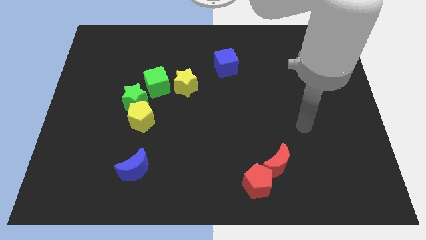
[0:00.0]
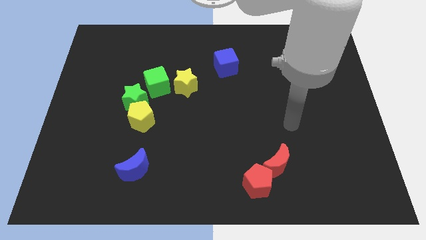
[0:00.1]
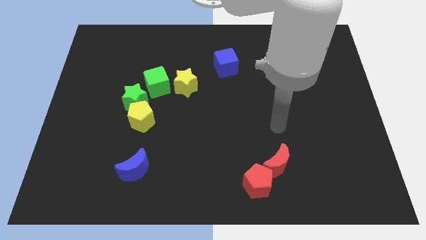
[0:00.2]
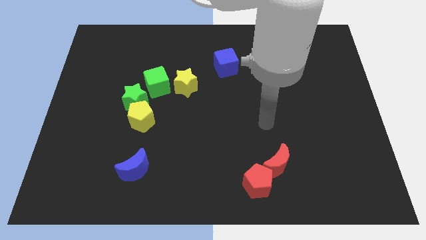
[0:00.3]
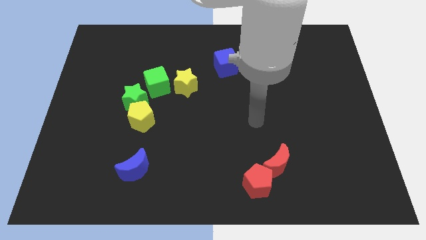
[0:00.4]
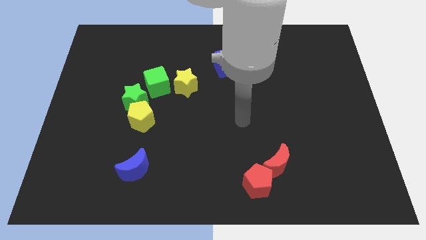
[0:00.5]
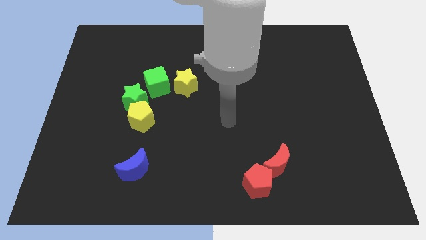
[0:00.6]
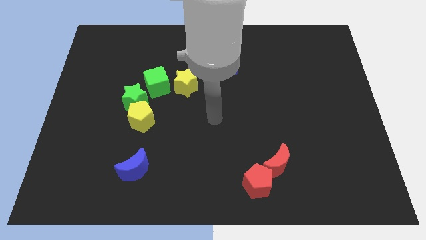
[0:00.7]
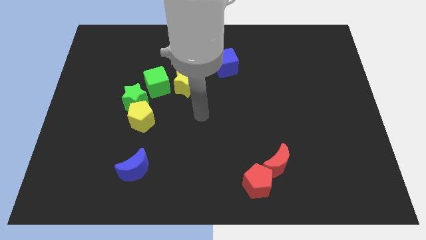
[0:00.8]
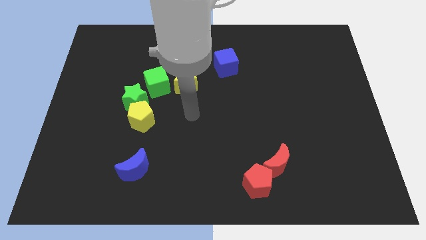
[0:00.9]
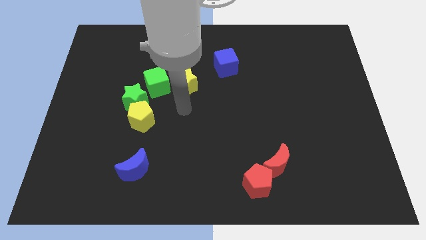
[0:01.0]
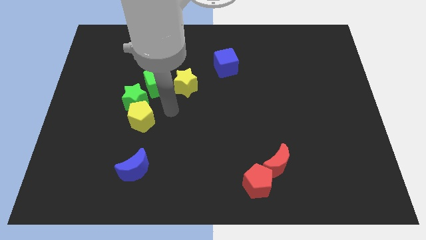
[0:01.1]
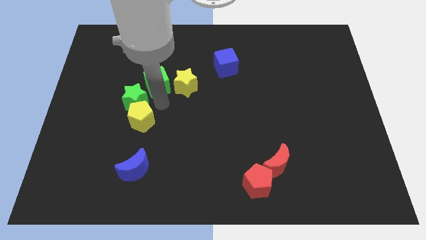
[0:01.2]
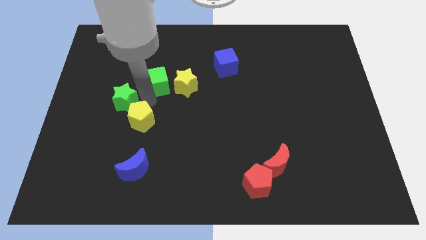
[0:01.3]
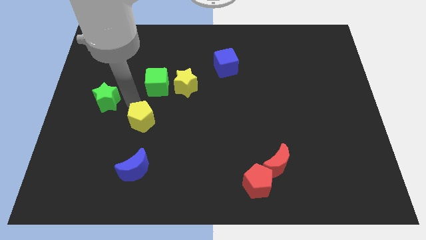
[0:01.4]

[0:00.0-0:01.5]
separate the yellow pentagon from the green star

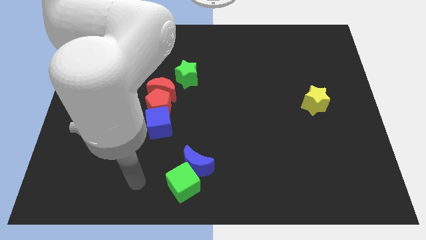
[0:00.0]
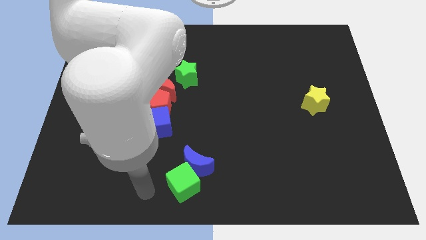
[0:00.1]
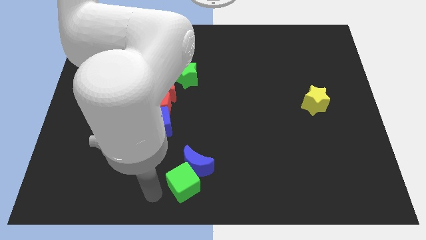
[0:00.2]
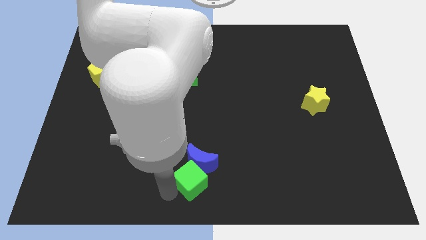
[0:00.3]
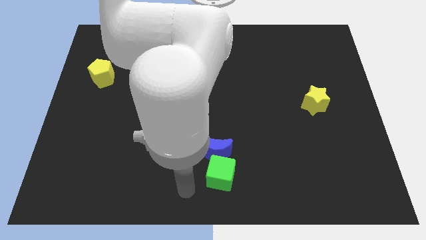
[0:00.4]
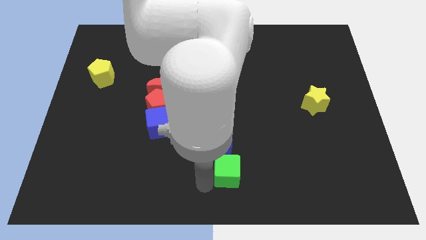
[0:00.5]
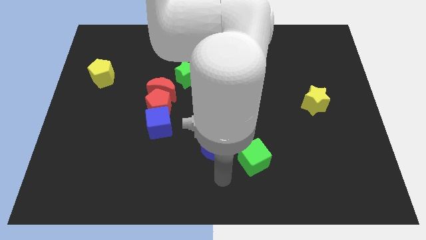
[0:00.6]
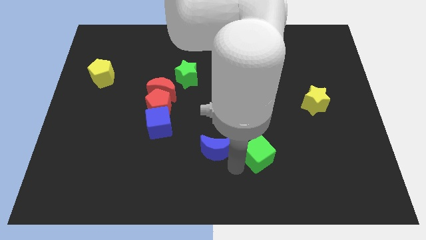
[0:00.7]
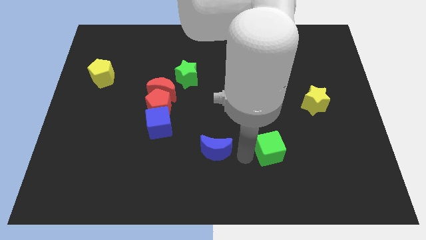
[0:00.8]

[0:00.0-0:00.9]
pull the blue moon apart from the green cube

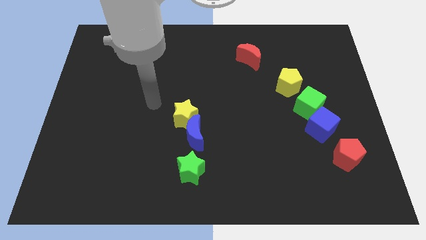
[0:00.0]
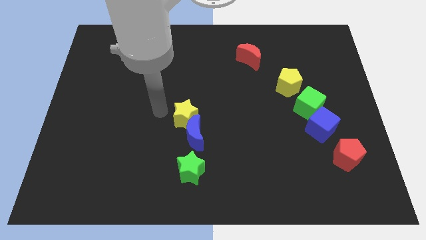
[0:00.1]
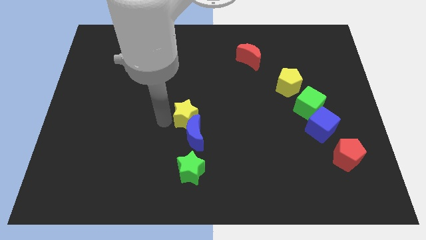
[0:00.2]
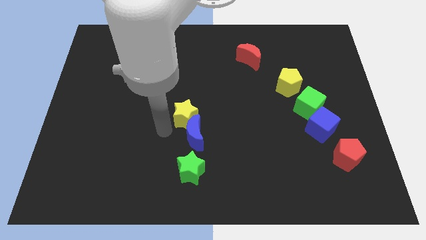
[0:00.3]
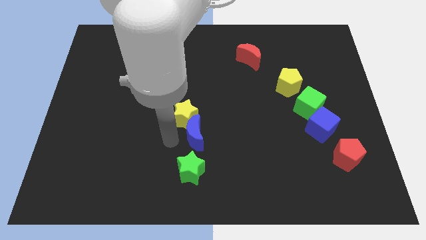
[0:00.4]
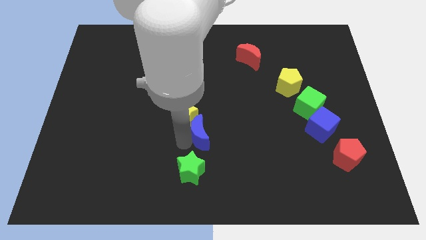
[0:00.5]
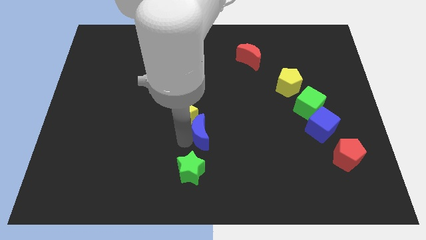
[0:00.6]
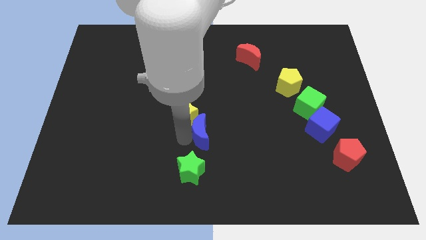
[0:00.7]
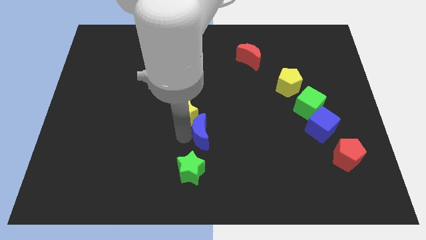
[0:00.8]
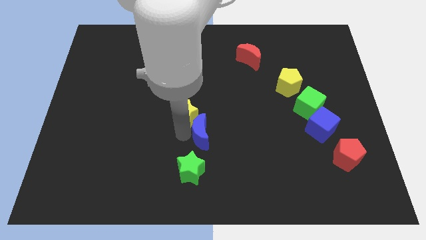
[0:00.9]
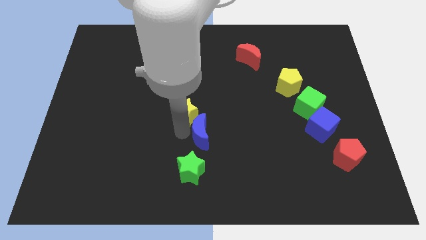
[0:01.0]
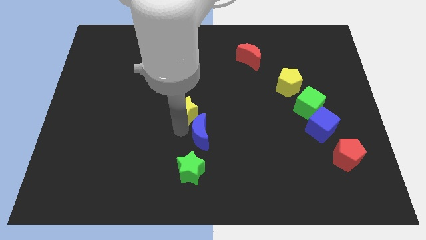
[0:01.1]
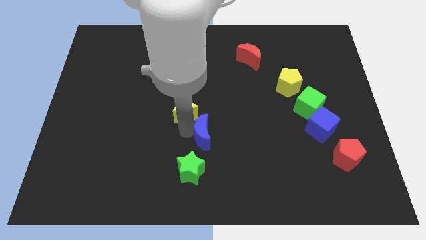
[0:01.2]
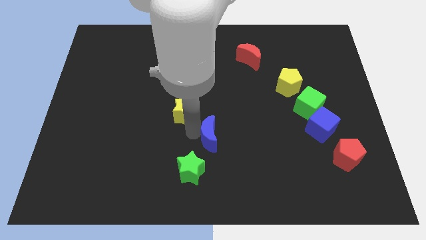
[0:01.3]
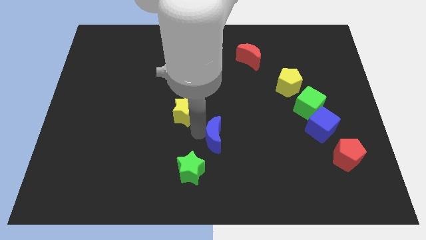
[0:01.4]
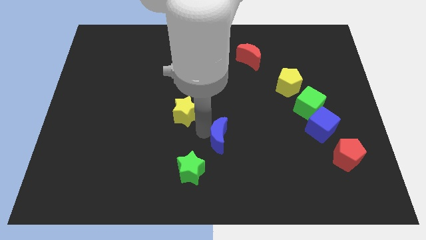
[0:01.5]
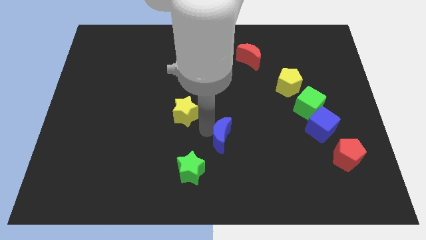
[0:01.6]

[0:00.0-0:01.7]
move the yellow star away from the blue moon

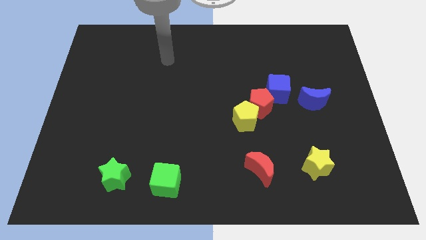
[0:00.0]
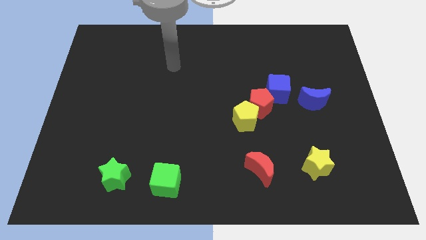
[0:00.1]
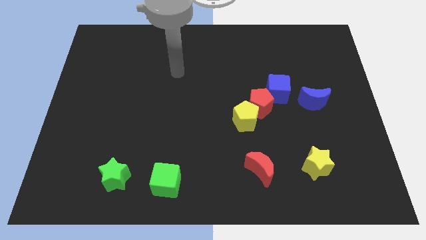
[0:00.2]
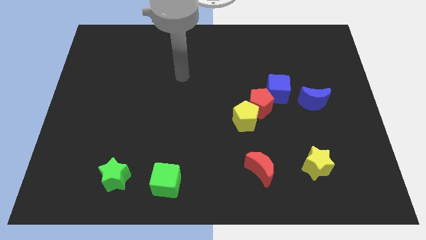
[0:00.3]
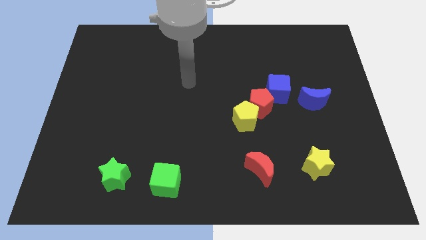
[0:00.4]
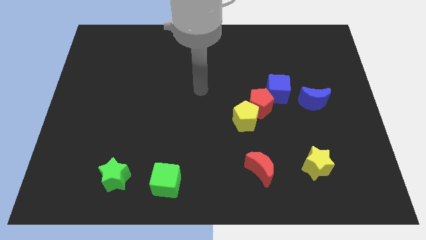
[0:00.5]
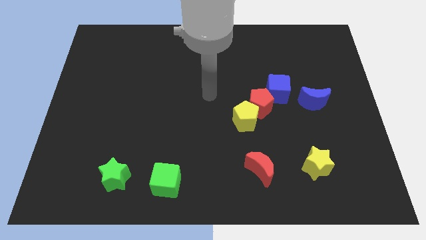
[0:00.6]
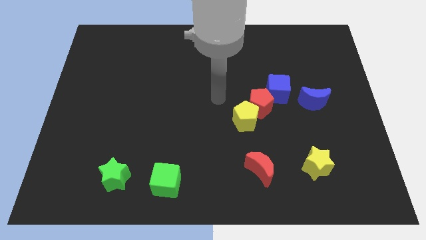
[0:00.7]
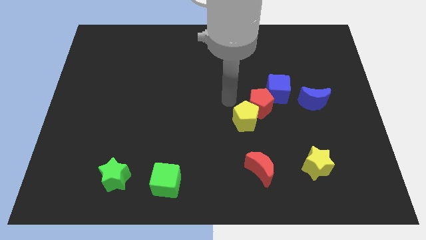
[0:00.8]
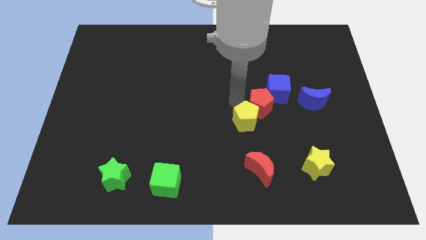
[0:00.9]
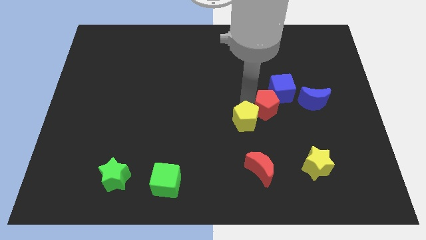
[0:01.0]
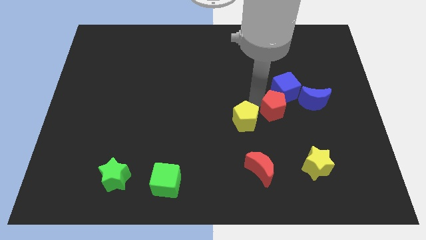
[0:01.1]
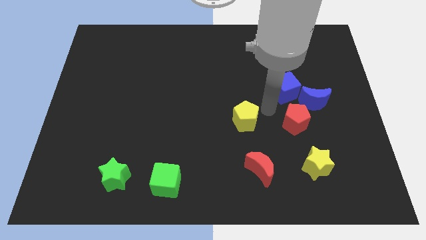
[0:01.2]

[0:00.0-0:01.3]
pull the yellow pentagon apart from the red pentagon

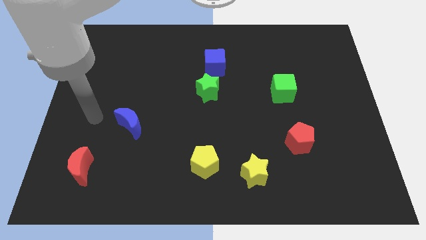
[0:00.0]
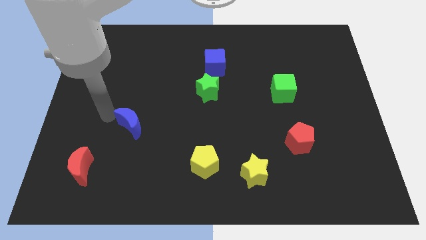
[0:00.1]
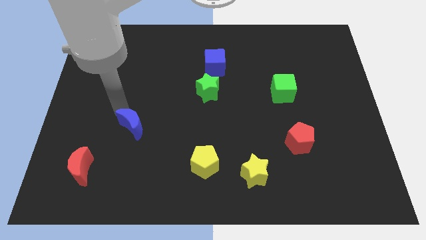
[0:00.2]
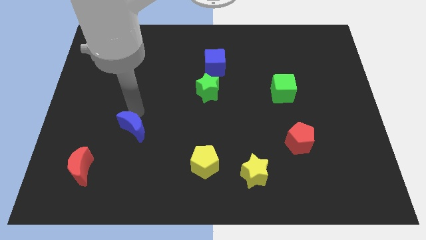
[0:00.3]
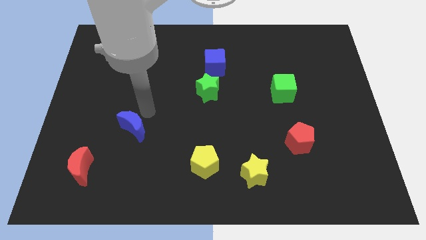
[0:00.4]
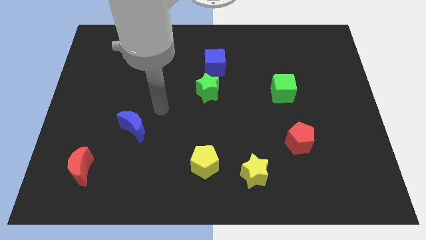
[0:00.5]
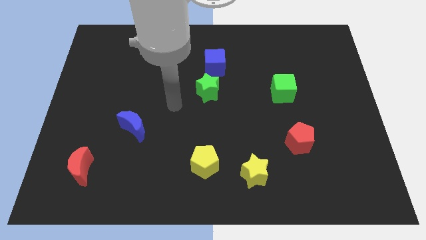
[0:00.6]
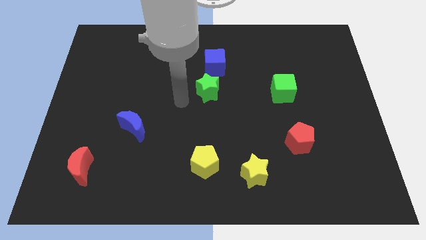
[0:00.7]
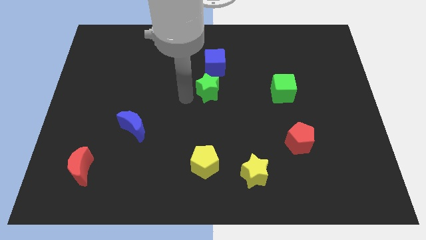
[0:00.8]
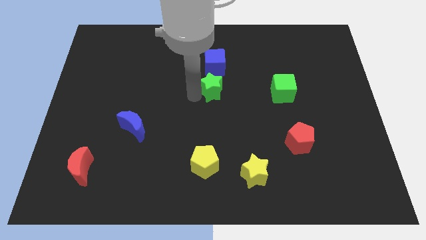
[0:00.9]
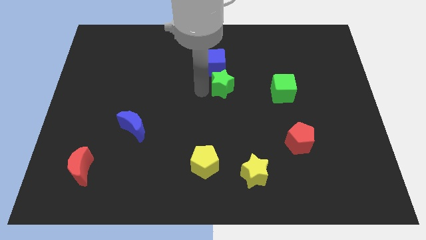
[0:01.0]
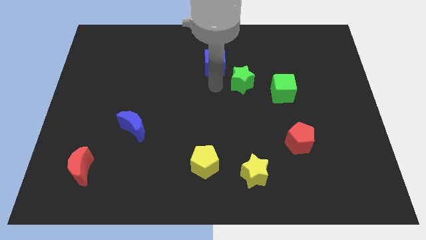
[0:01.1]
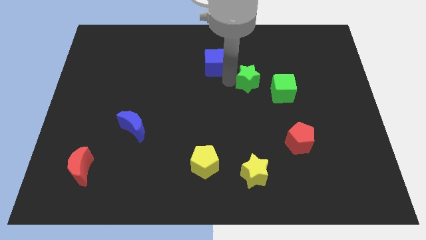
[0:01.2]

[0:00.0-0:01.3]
separate the blue cube from the green star

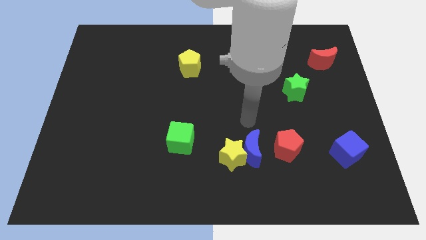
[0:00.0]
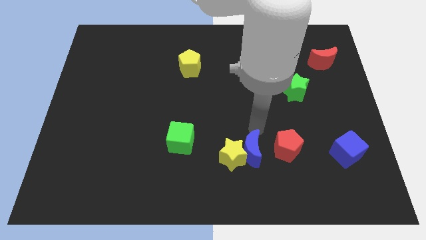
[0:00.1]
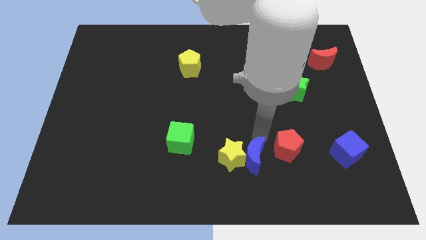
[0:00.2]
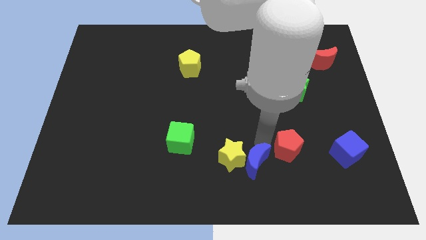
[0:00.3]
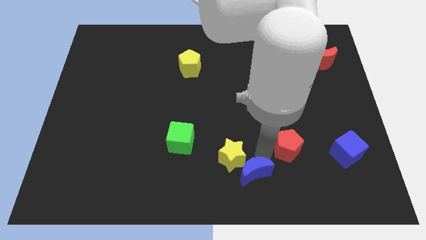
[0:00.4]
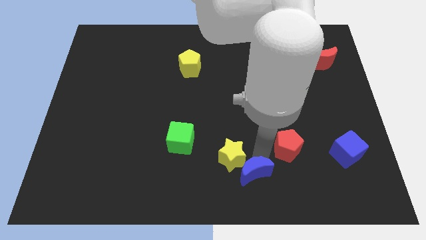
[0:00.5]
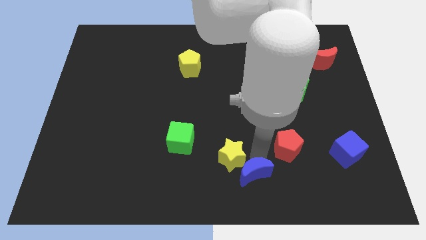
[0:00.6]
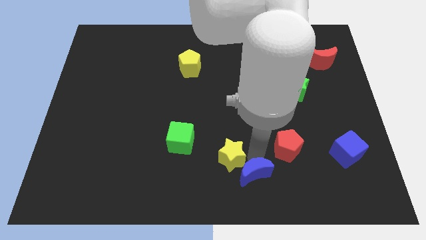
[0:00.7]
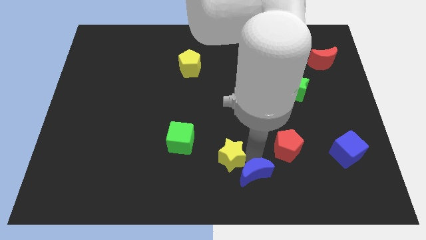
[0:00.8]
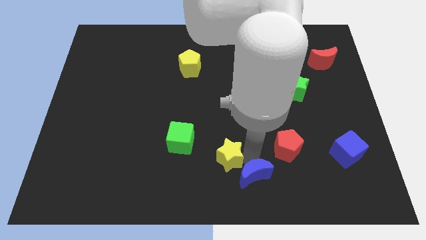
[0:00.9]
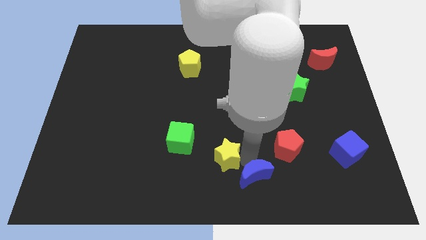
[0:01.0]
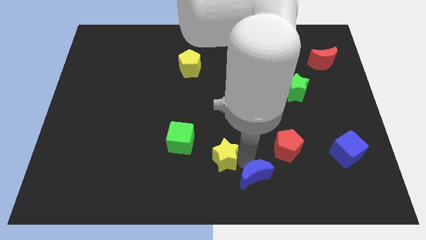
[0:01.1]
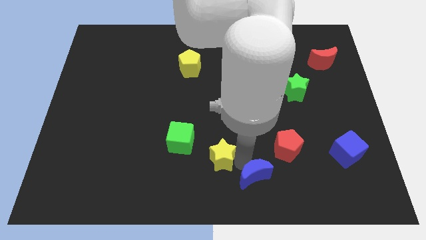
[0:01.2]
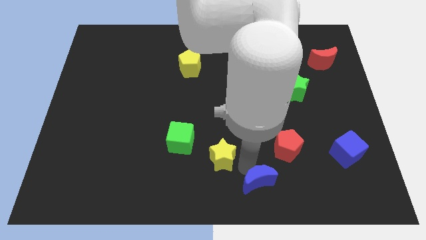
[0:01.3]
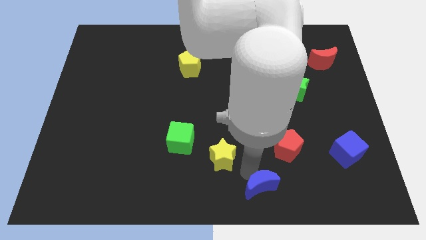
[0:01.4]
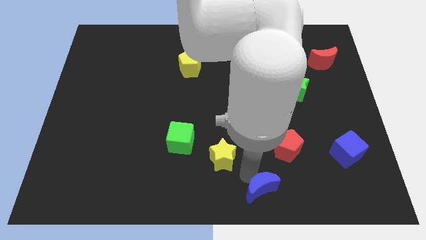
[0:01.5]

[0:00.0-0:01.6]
pull the yellow star apart from the blue moon

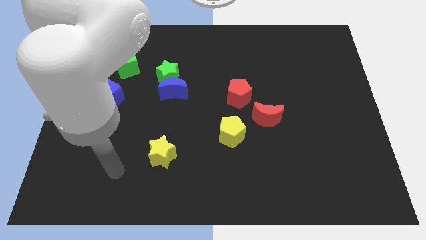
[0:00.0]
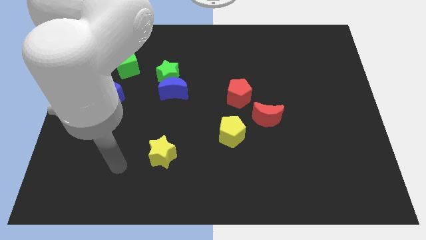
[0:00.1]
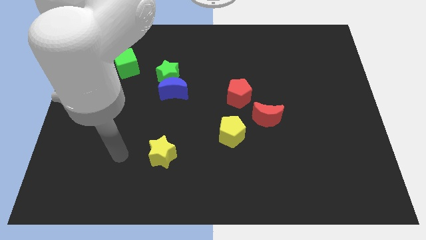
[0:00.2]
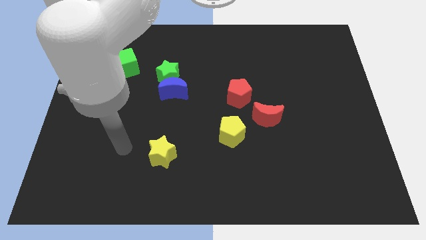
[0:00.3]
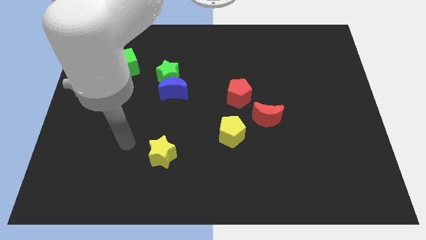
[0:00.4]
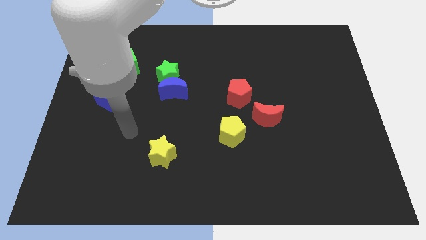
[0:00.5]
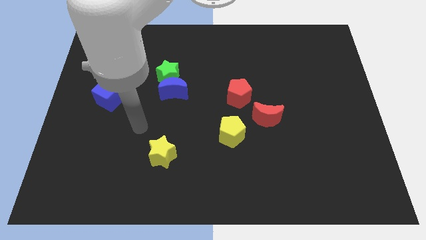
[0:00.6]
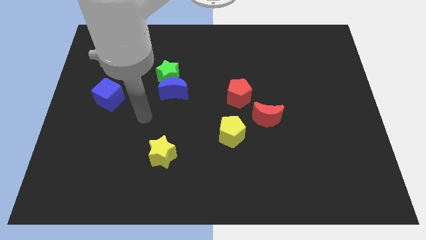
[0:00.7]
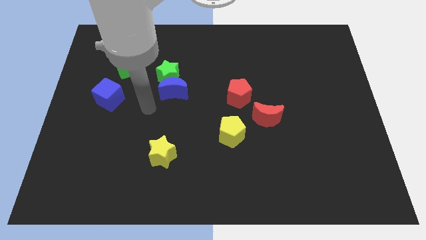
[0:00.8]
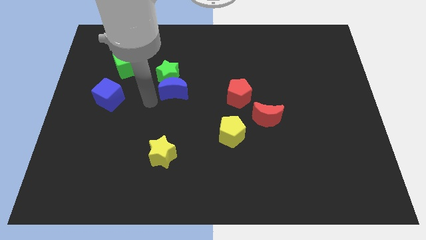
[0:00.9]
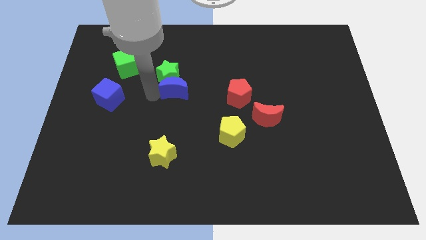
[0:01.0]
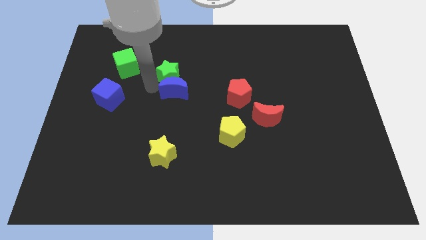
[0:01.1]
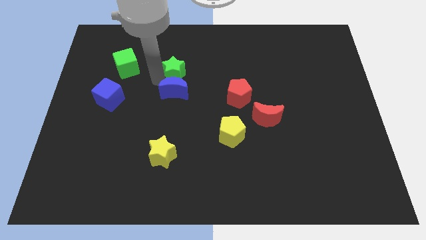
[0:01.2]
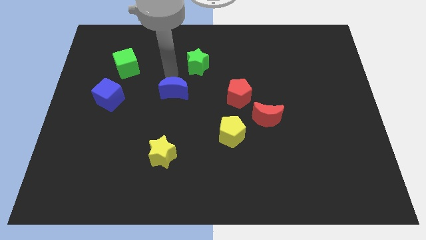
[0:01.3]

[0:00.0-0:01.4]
move the blue moon away from the green star
